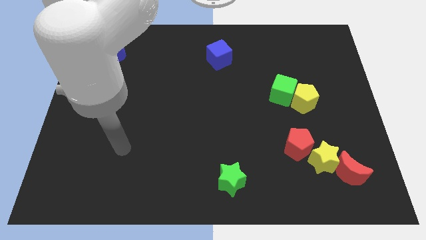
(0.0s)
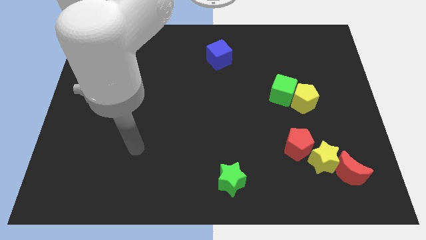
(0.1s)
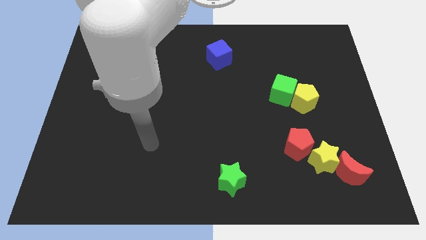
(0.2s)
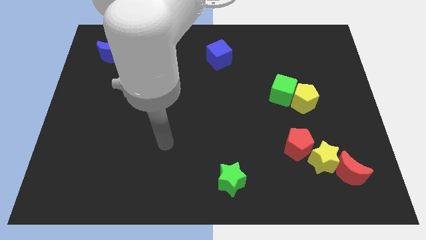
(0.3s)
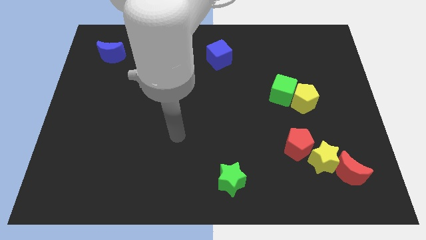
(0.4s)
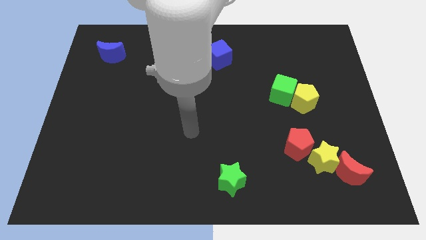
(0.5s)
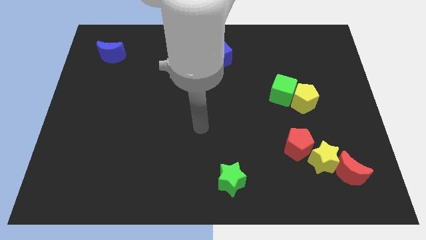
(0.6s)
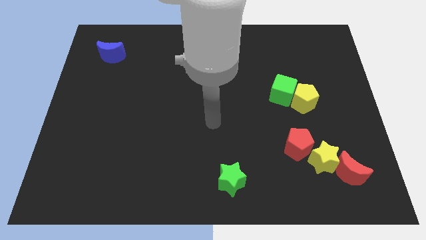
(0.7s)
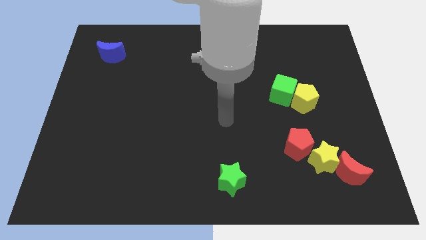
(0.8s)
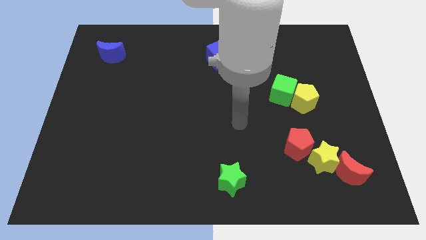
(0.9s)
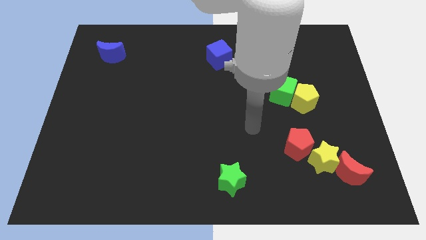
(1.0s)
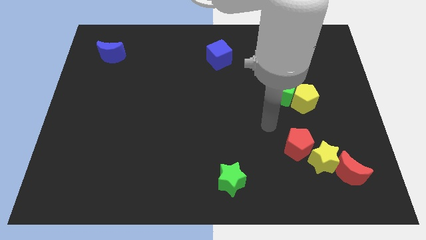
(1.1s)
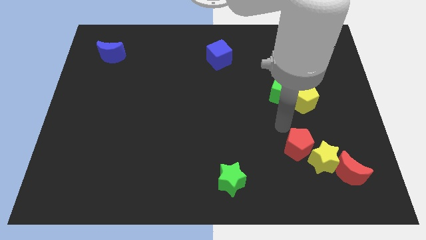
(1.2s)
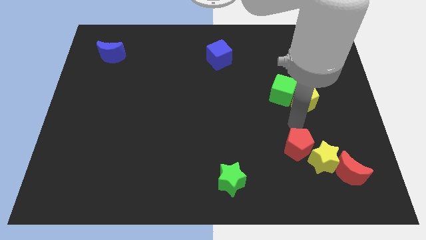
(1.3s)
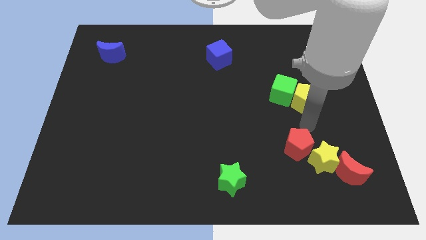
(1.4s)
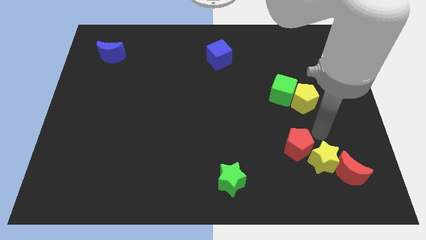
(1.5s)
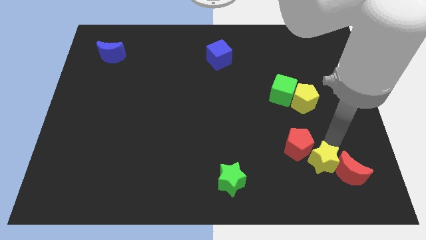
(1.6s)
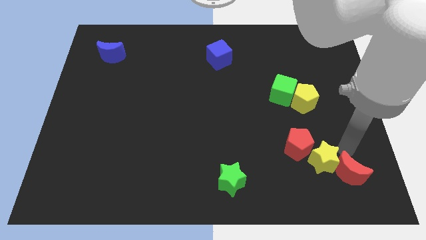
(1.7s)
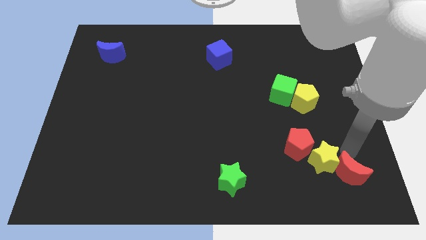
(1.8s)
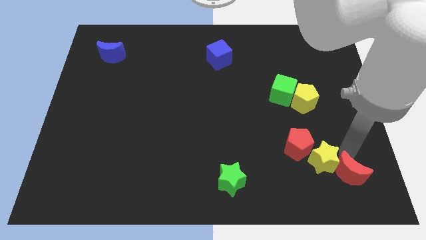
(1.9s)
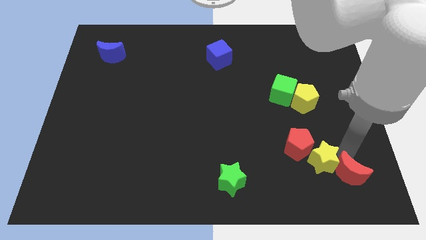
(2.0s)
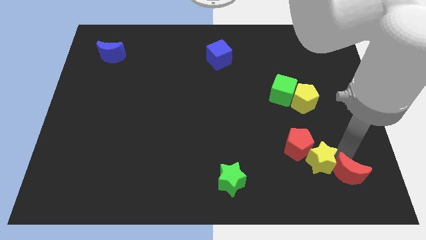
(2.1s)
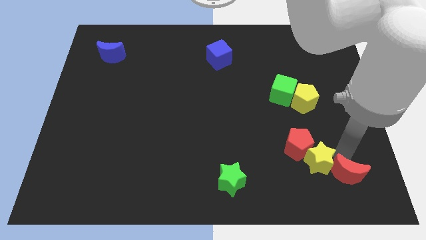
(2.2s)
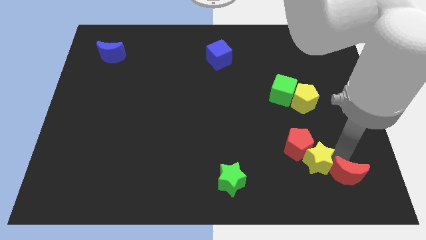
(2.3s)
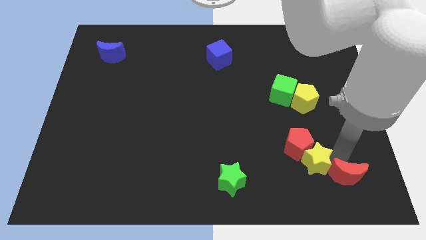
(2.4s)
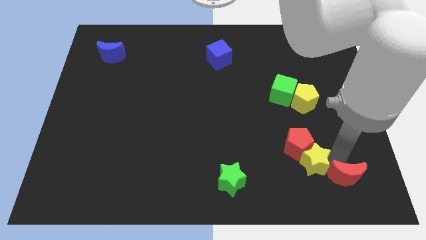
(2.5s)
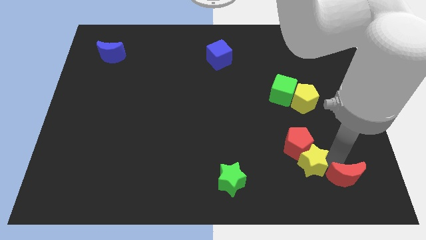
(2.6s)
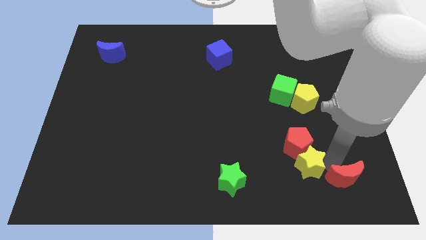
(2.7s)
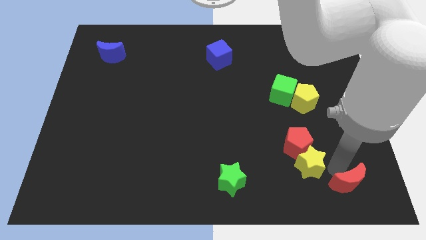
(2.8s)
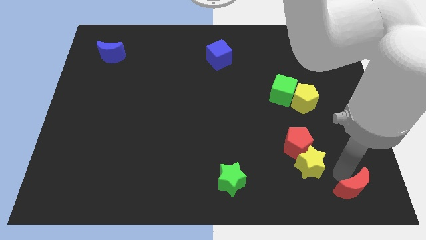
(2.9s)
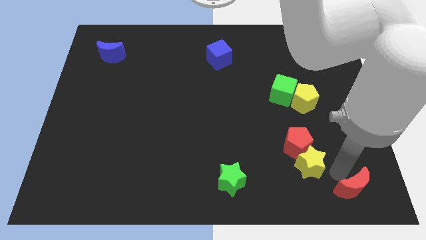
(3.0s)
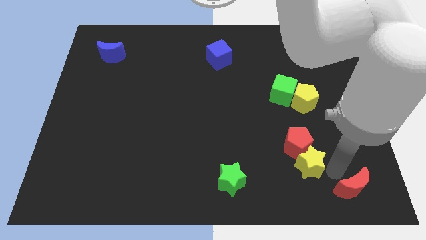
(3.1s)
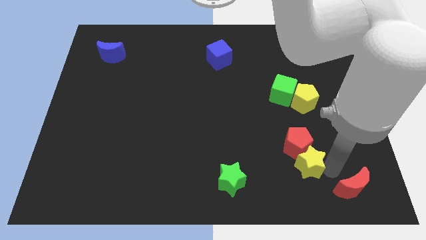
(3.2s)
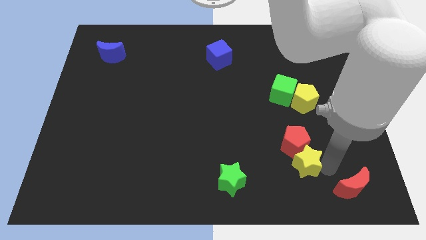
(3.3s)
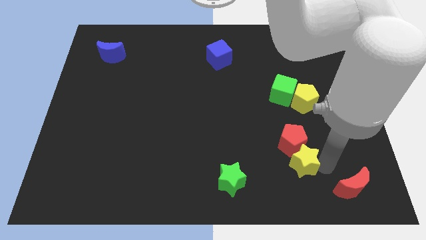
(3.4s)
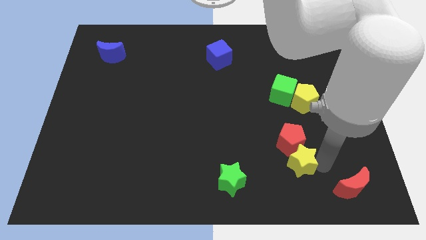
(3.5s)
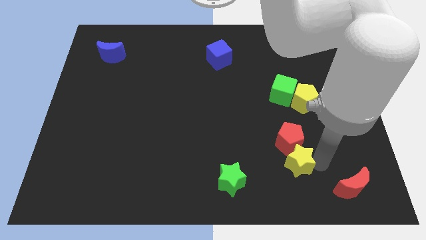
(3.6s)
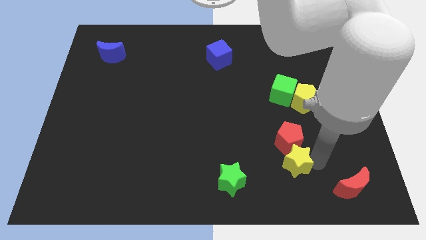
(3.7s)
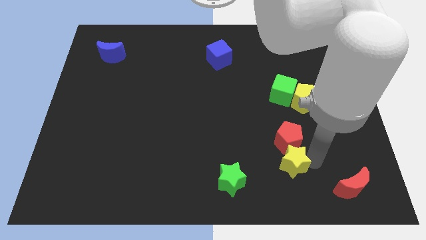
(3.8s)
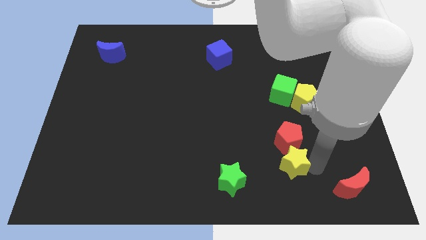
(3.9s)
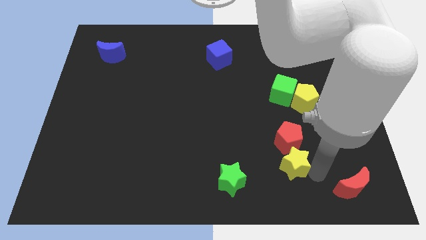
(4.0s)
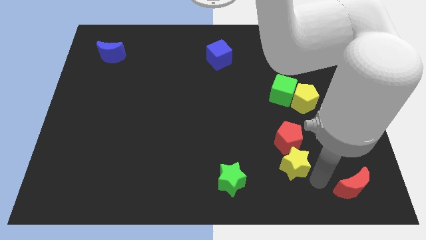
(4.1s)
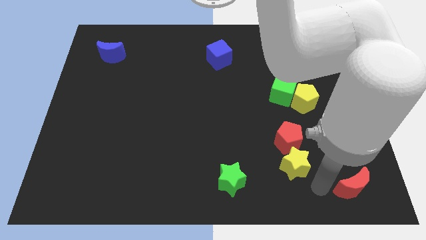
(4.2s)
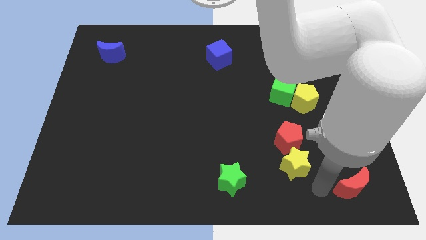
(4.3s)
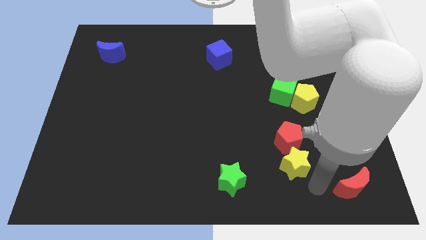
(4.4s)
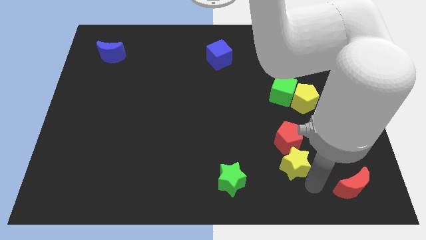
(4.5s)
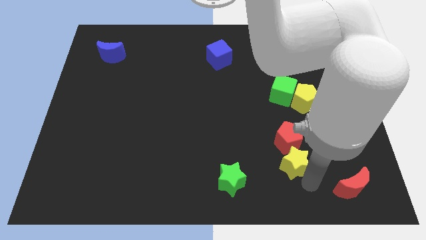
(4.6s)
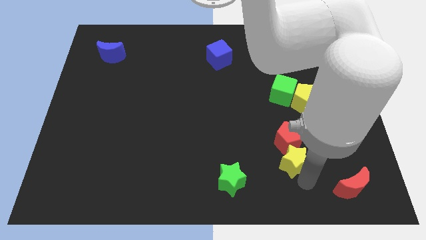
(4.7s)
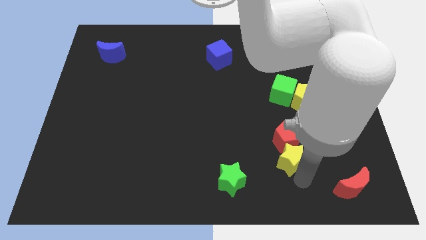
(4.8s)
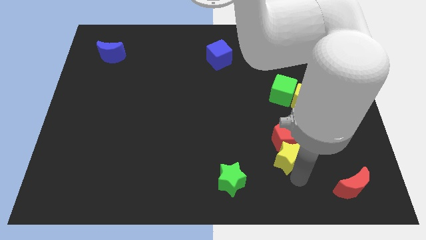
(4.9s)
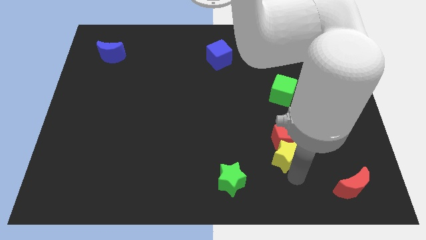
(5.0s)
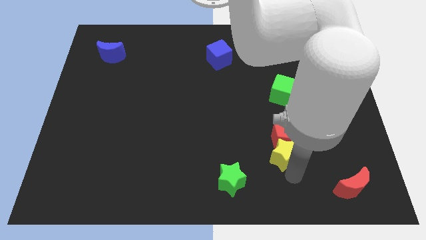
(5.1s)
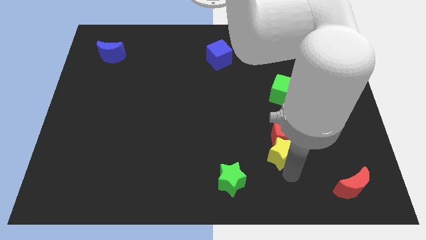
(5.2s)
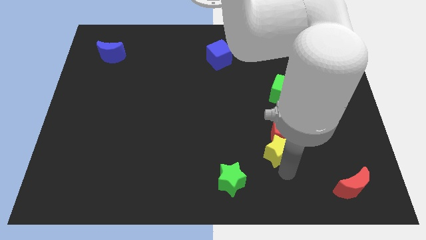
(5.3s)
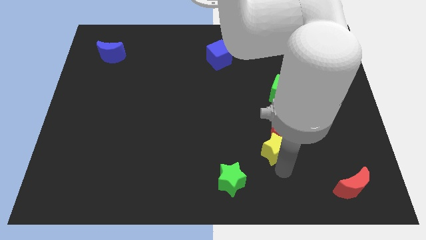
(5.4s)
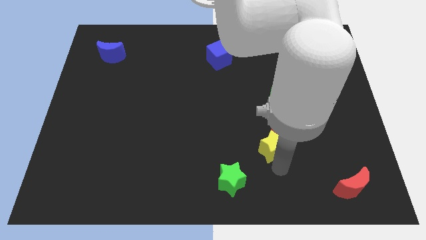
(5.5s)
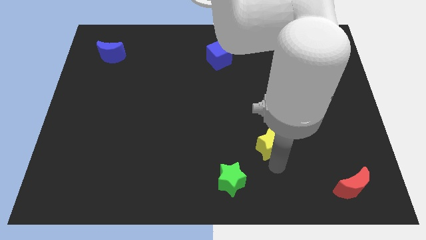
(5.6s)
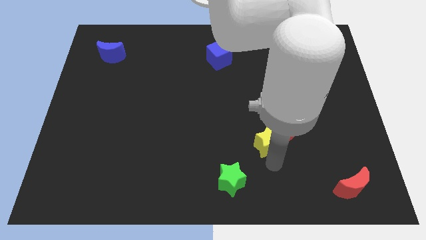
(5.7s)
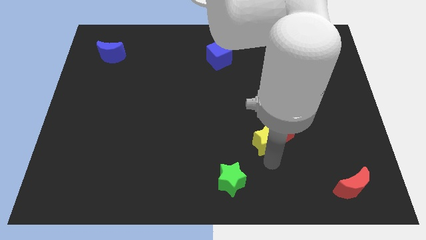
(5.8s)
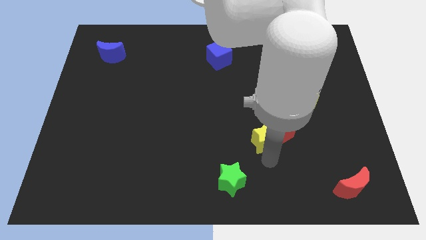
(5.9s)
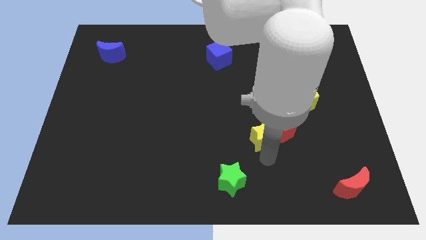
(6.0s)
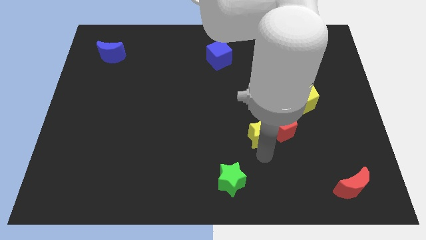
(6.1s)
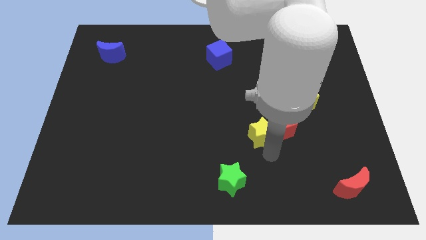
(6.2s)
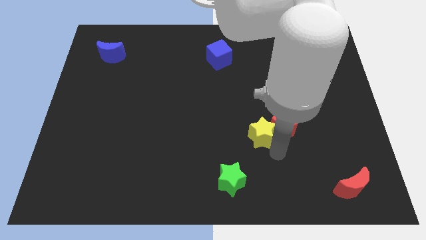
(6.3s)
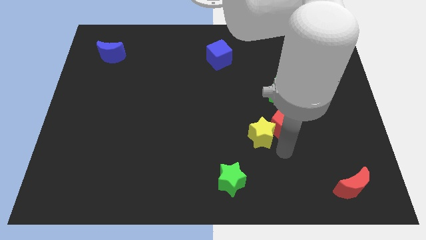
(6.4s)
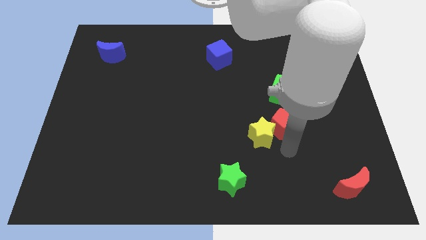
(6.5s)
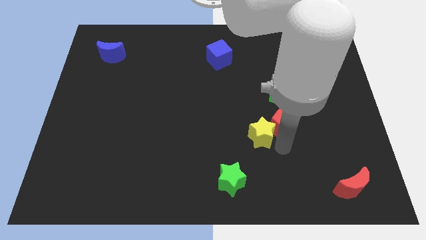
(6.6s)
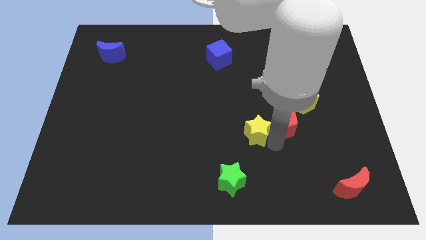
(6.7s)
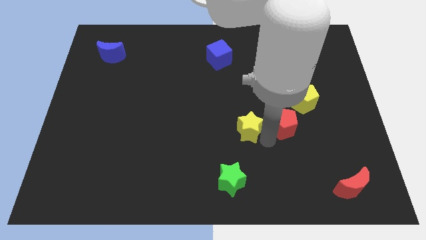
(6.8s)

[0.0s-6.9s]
slide the yellow star to the middle
